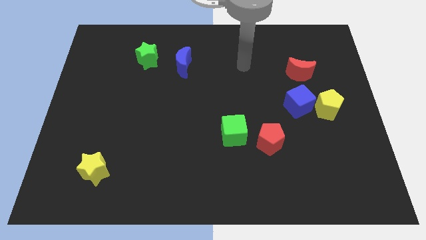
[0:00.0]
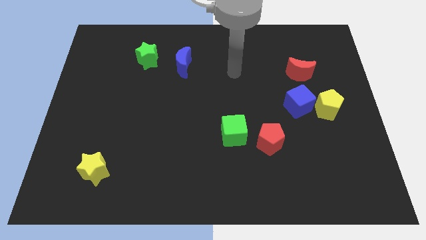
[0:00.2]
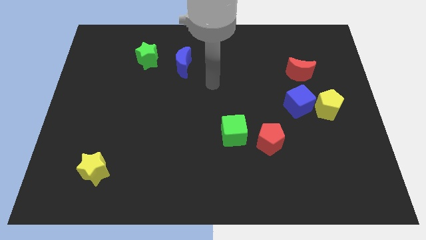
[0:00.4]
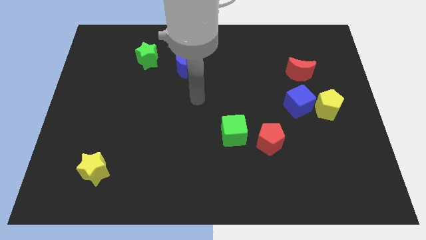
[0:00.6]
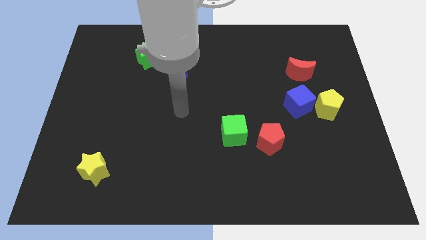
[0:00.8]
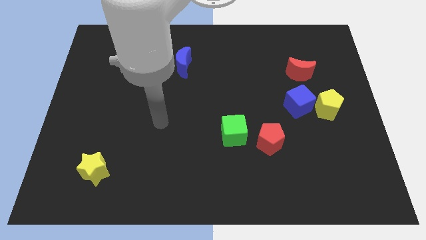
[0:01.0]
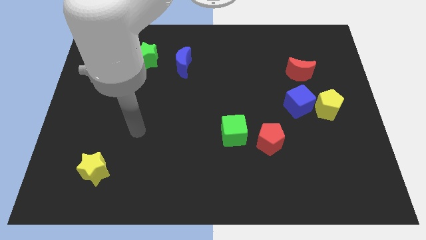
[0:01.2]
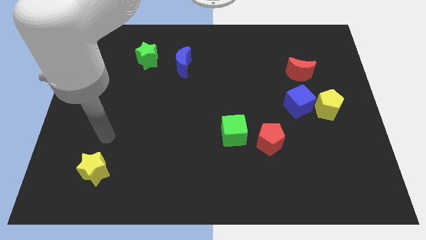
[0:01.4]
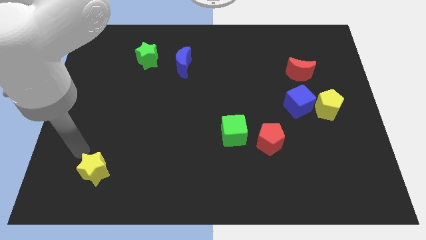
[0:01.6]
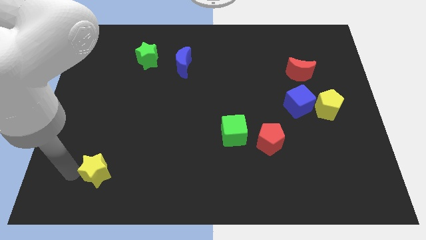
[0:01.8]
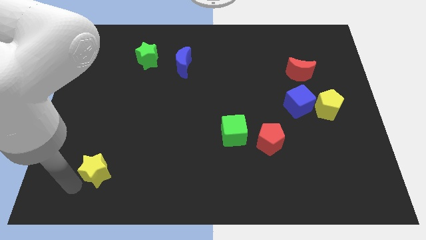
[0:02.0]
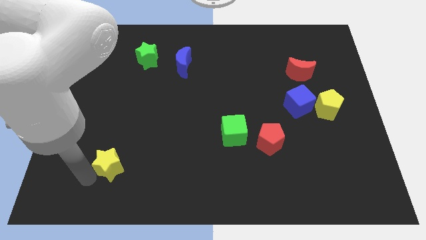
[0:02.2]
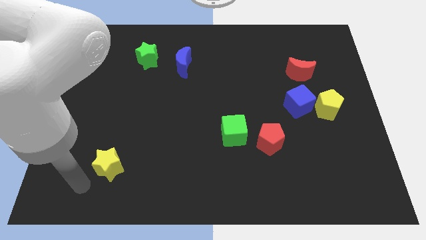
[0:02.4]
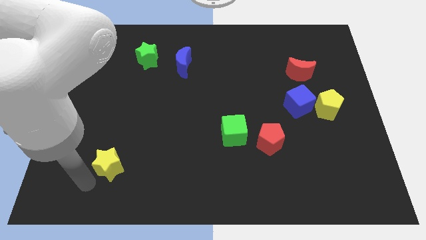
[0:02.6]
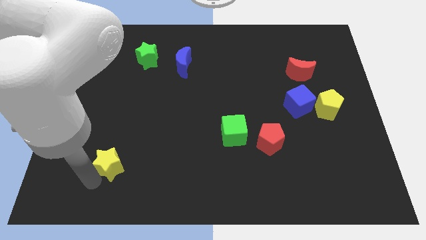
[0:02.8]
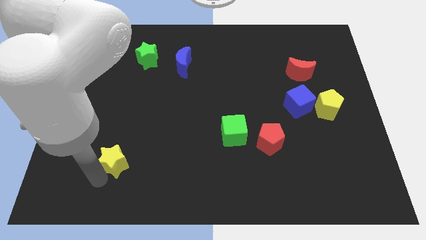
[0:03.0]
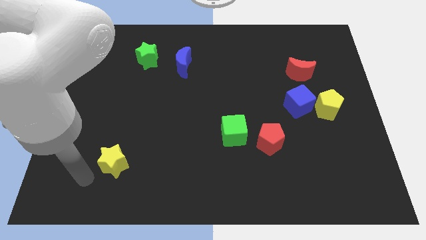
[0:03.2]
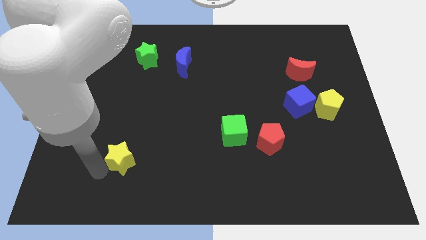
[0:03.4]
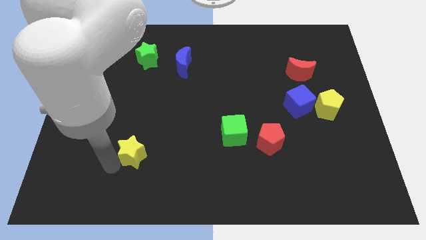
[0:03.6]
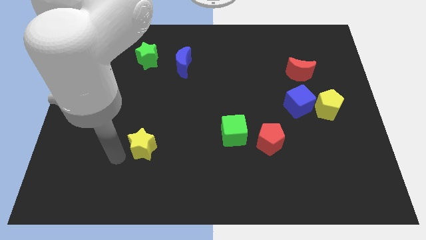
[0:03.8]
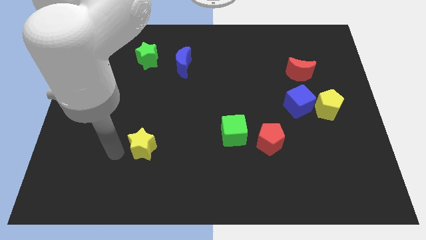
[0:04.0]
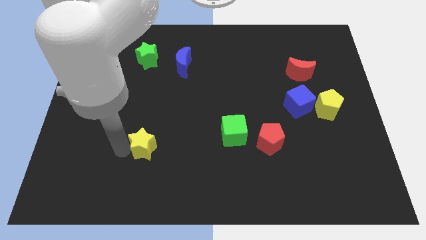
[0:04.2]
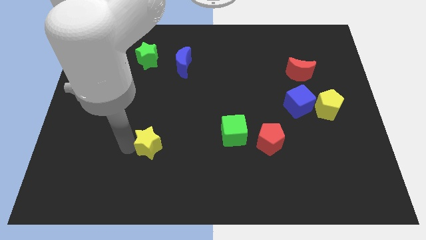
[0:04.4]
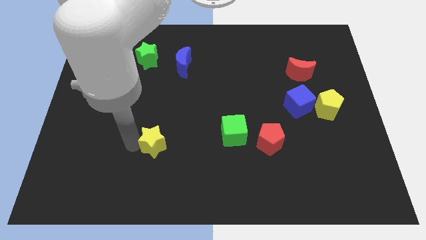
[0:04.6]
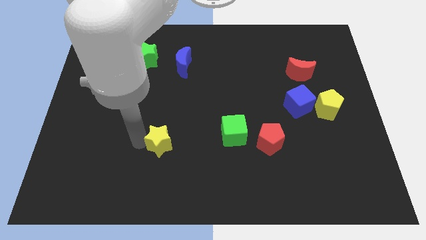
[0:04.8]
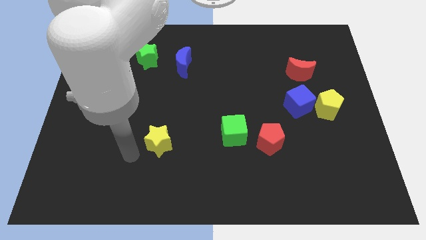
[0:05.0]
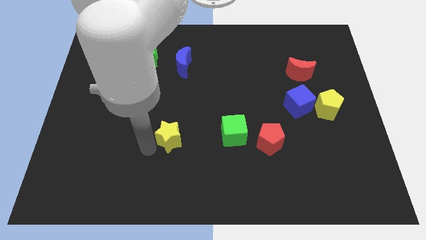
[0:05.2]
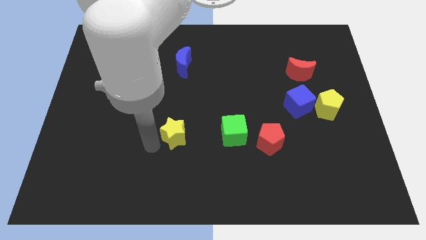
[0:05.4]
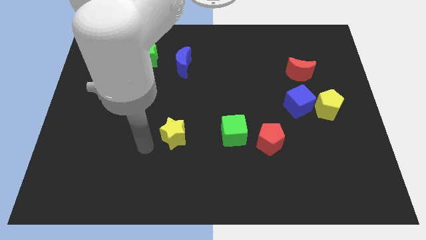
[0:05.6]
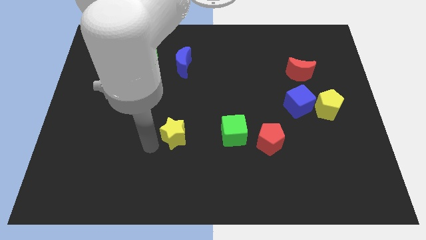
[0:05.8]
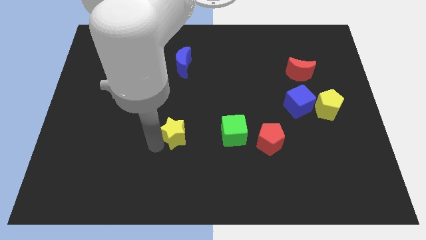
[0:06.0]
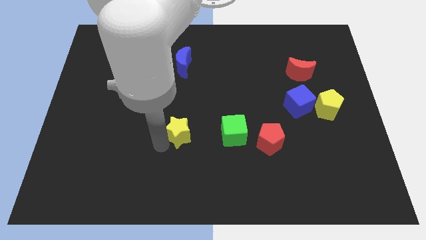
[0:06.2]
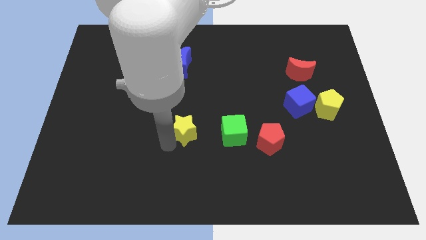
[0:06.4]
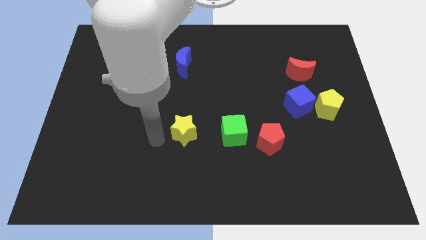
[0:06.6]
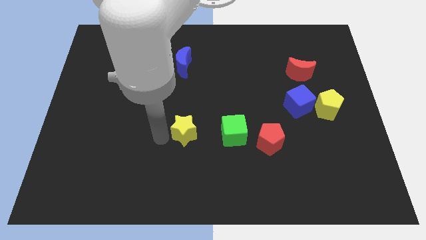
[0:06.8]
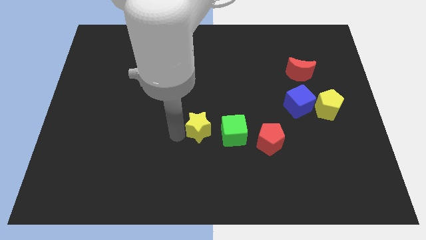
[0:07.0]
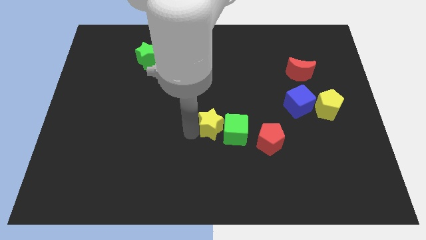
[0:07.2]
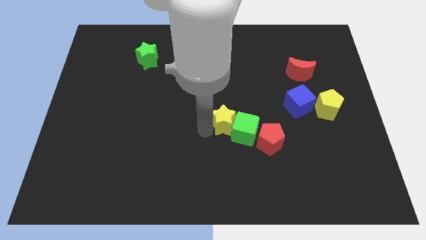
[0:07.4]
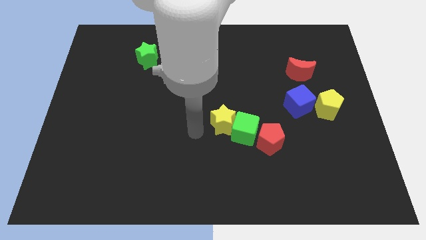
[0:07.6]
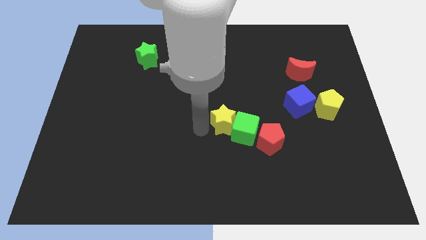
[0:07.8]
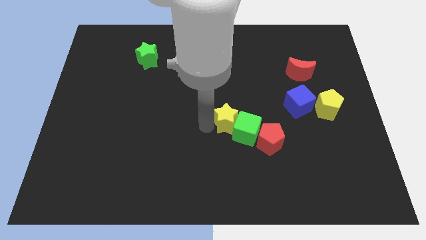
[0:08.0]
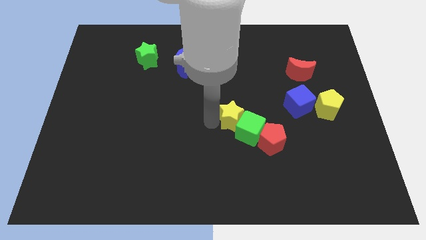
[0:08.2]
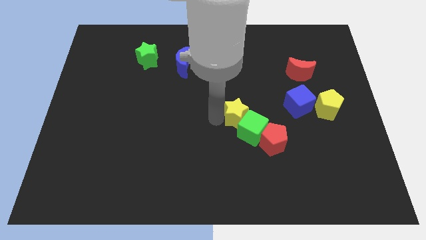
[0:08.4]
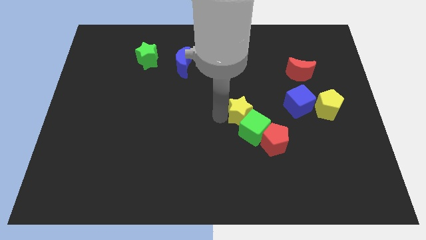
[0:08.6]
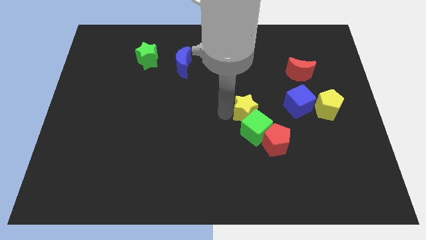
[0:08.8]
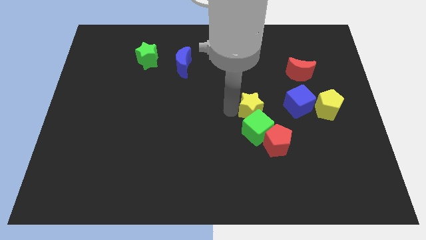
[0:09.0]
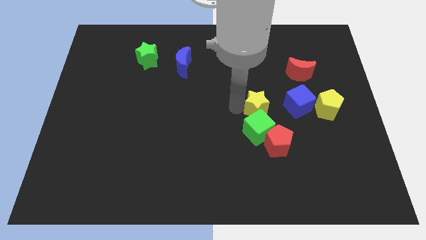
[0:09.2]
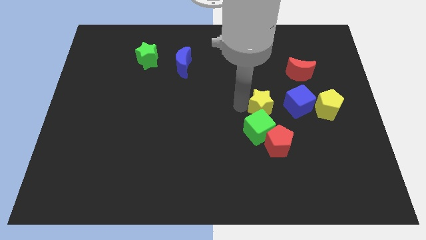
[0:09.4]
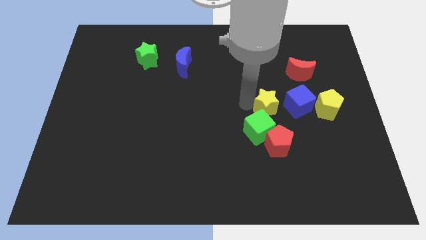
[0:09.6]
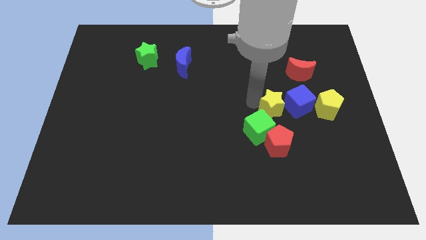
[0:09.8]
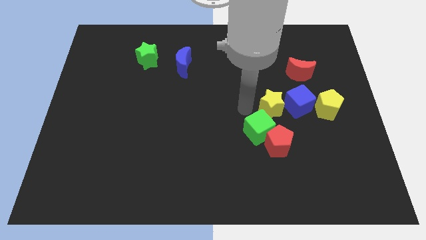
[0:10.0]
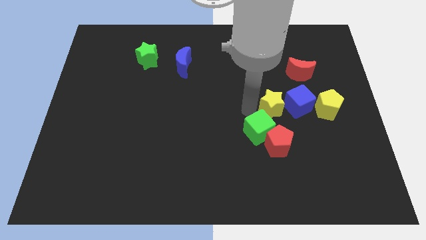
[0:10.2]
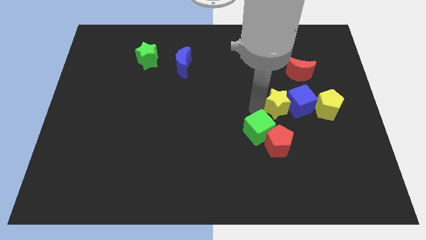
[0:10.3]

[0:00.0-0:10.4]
move the yellow star towards the blue cube

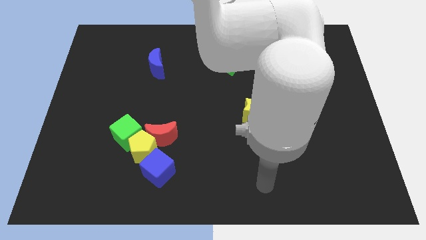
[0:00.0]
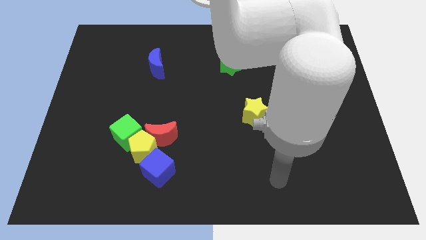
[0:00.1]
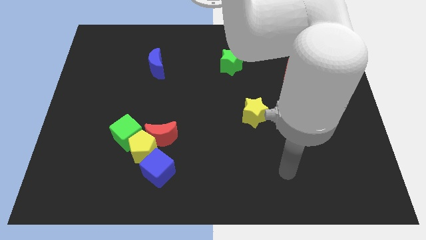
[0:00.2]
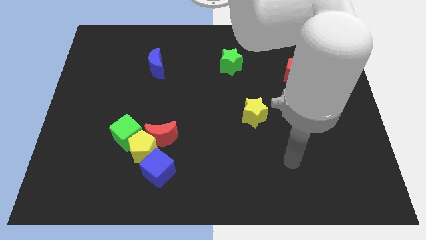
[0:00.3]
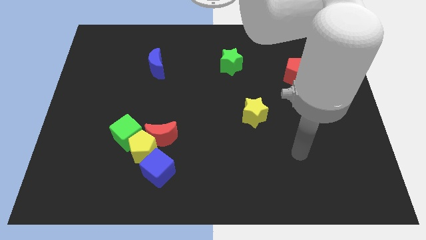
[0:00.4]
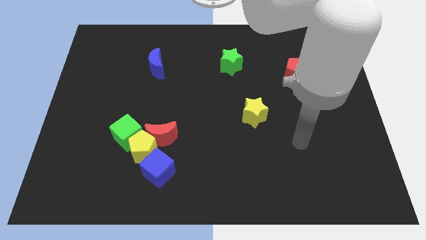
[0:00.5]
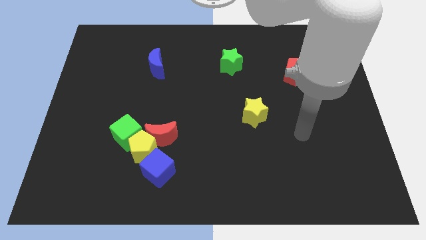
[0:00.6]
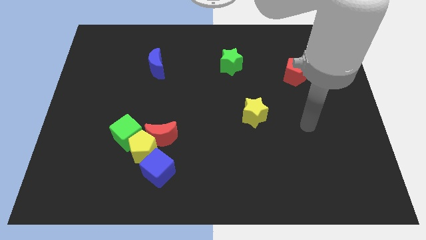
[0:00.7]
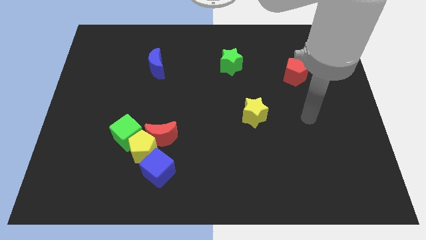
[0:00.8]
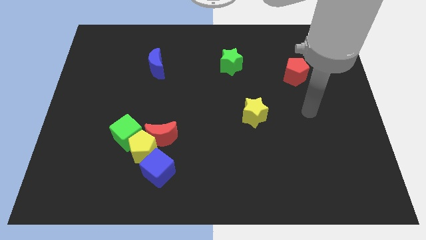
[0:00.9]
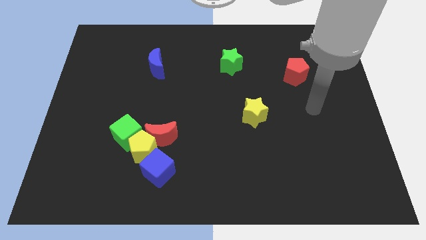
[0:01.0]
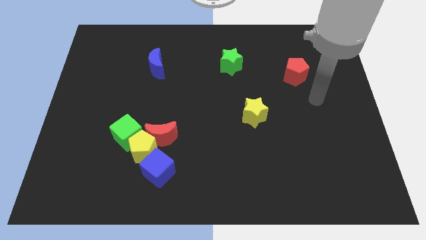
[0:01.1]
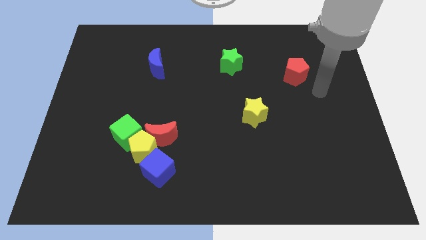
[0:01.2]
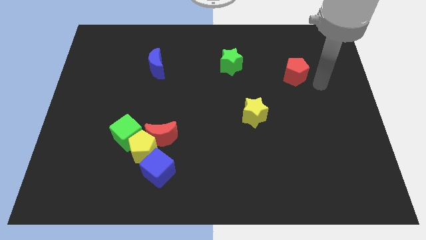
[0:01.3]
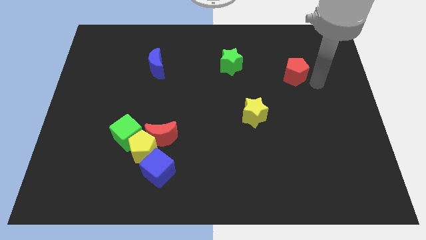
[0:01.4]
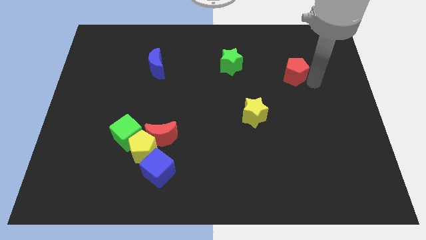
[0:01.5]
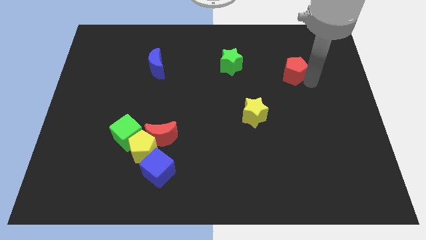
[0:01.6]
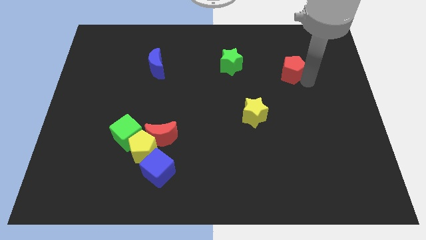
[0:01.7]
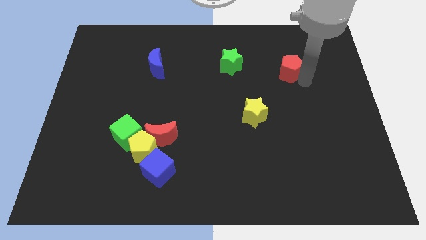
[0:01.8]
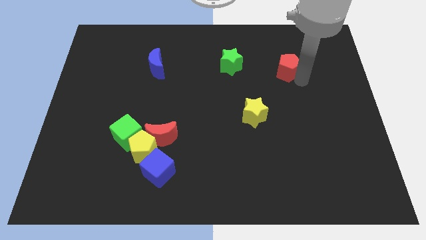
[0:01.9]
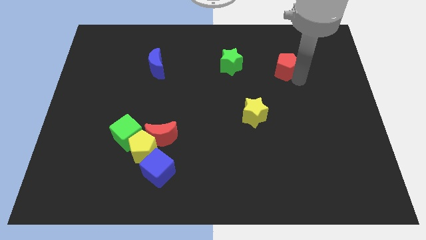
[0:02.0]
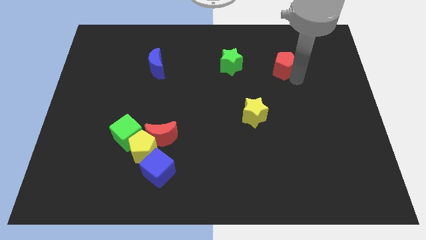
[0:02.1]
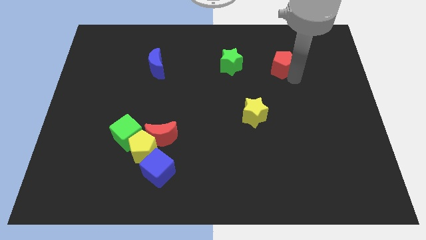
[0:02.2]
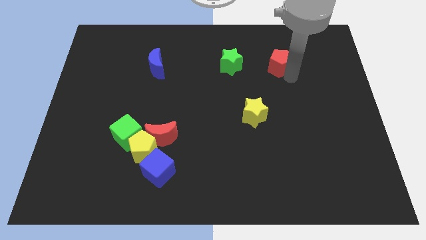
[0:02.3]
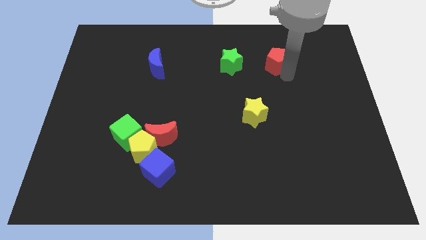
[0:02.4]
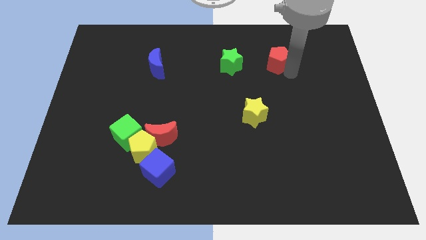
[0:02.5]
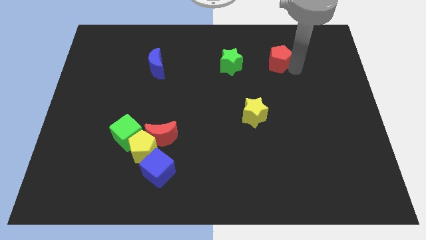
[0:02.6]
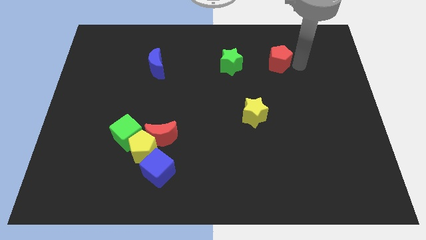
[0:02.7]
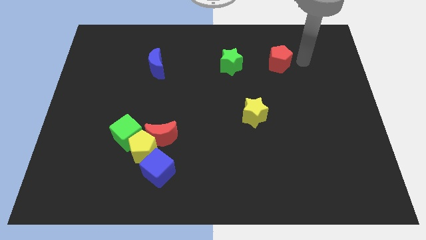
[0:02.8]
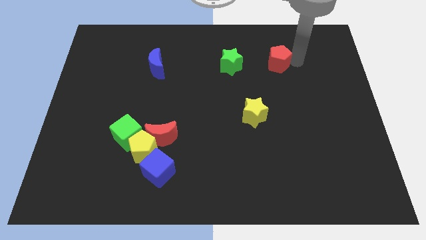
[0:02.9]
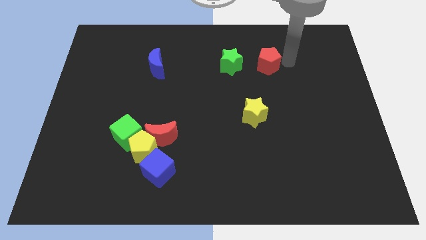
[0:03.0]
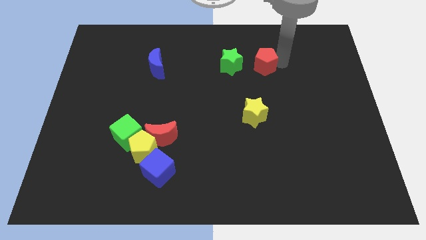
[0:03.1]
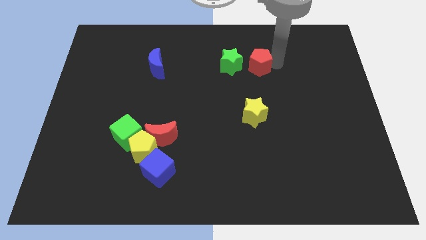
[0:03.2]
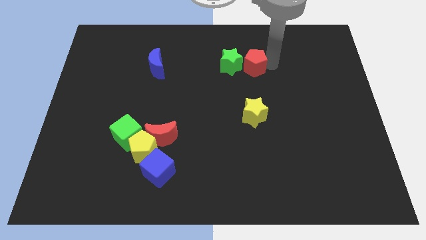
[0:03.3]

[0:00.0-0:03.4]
push the red pentagon next to the green star
